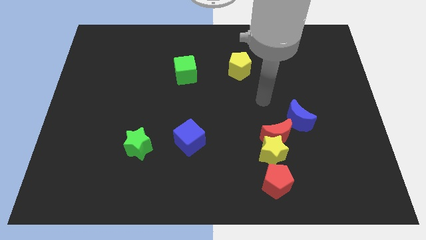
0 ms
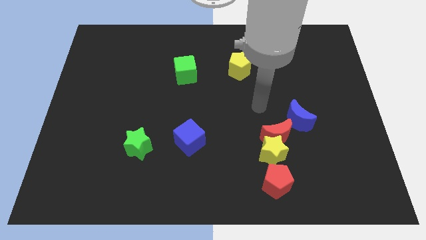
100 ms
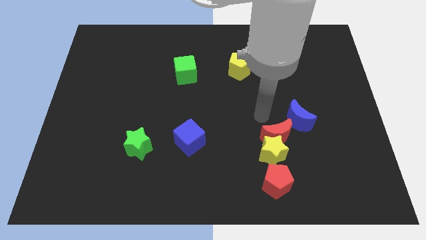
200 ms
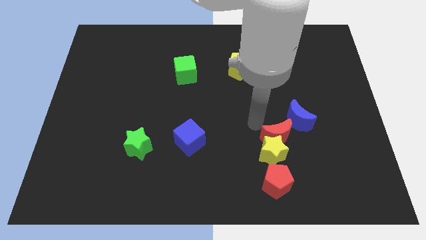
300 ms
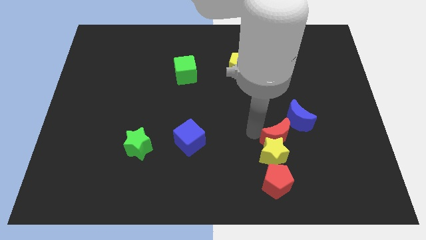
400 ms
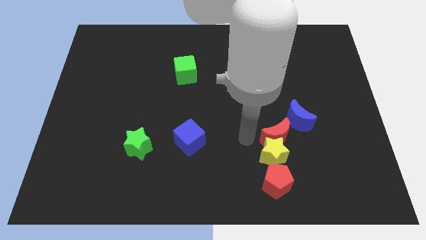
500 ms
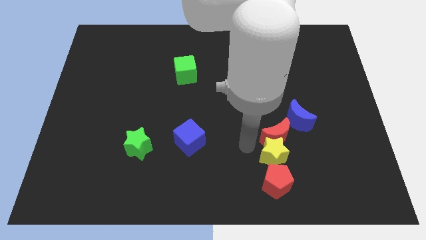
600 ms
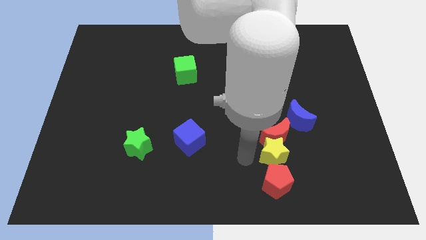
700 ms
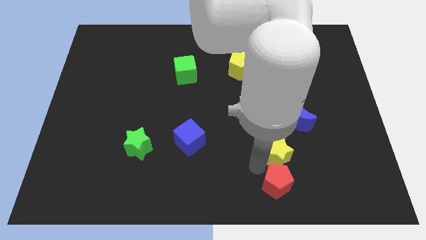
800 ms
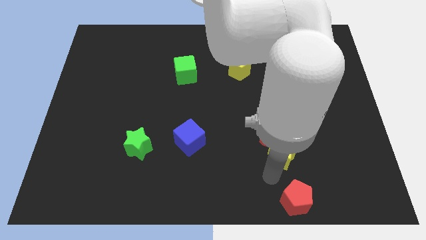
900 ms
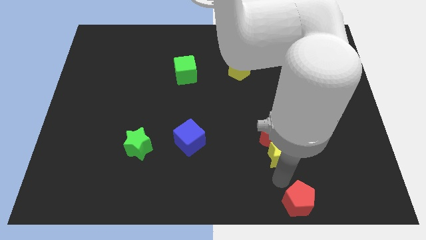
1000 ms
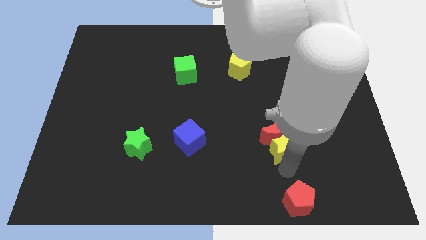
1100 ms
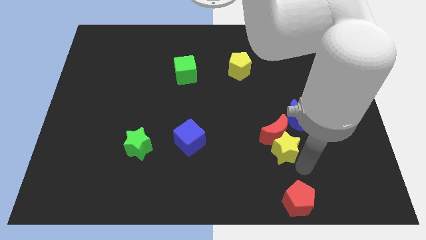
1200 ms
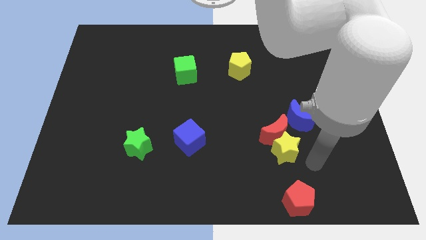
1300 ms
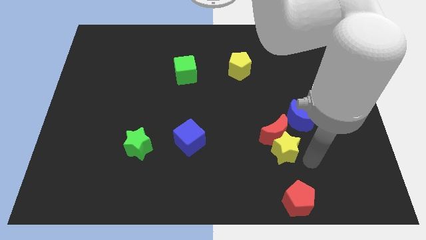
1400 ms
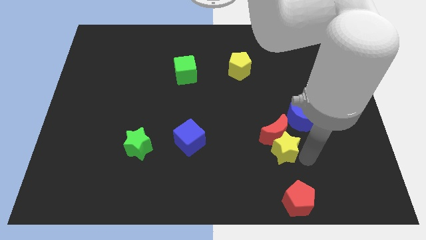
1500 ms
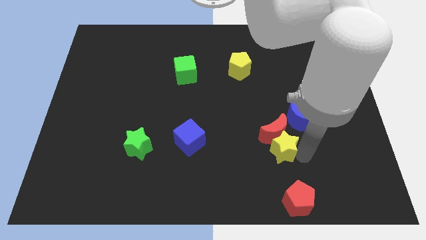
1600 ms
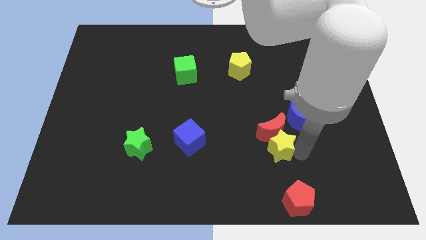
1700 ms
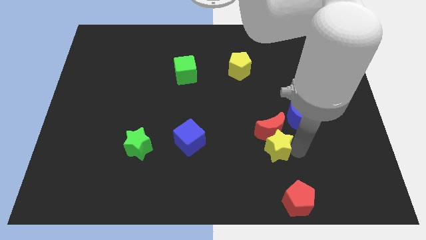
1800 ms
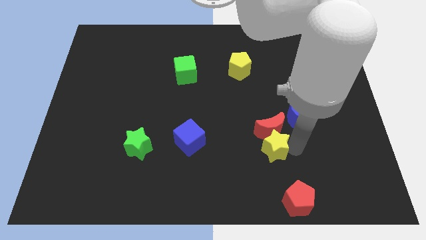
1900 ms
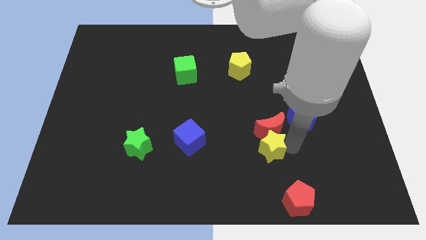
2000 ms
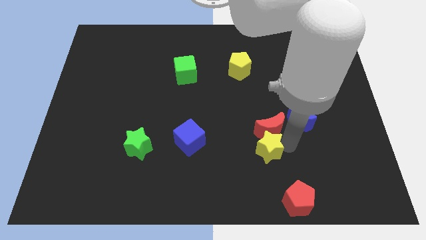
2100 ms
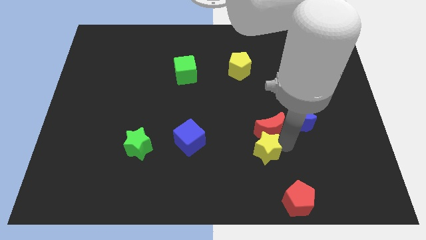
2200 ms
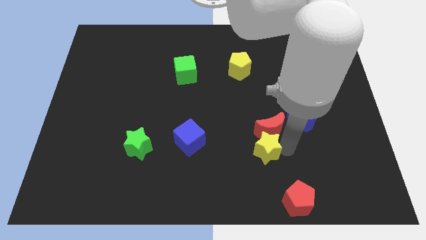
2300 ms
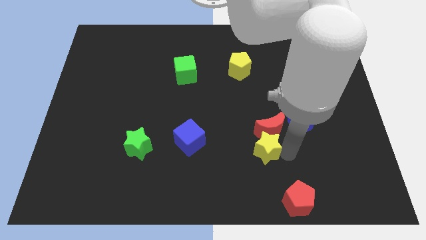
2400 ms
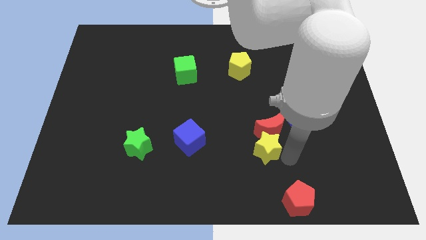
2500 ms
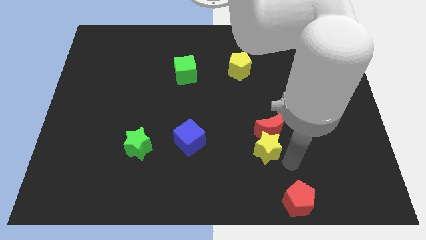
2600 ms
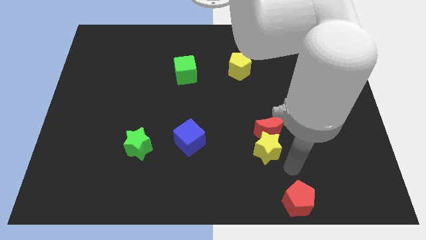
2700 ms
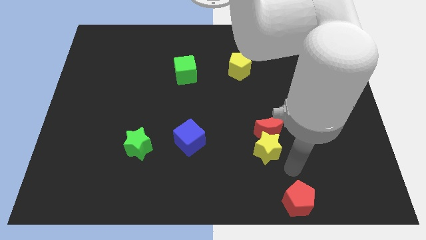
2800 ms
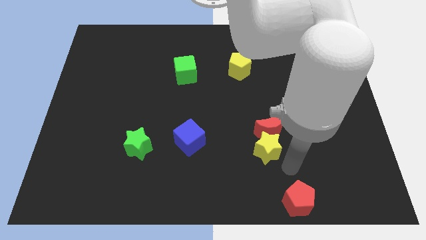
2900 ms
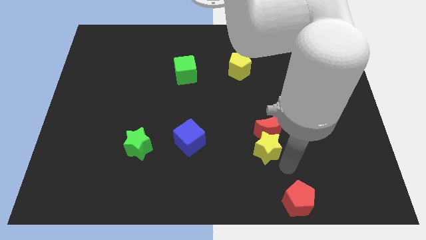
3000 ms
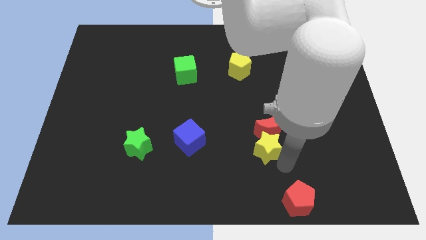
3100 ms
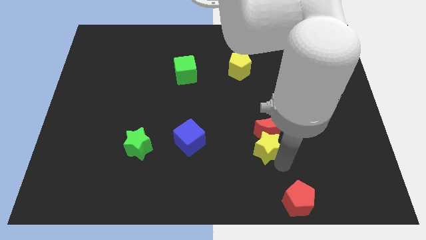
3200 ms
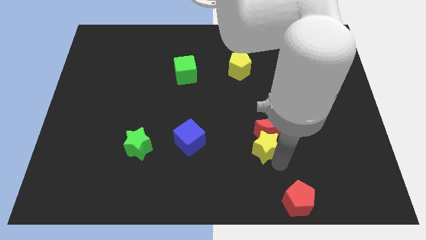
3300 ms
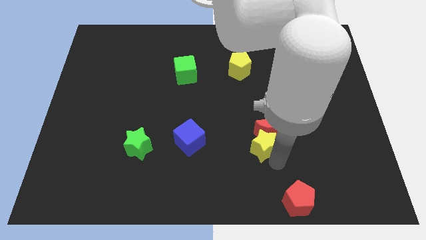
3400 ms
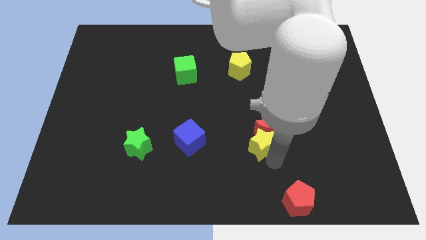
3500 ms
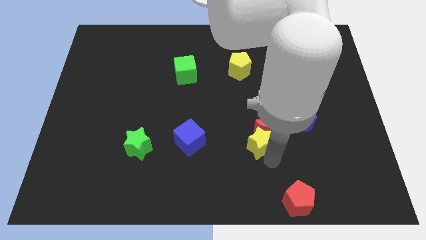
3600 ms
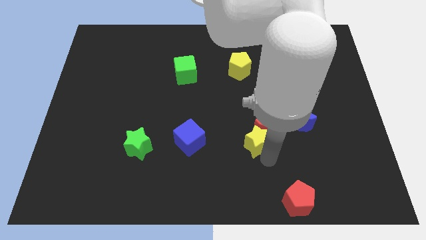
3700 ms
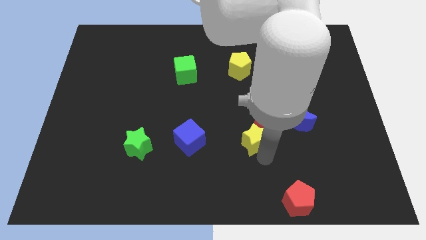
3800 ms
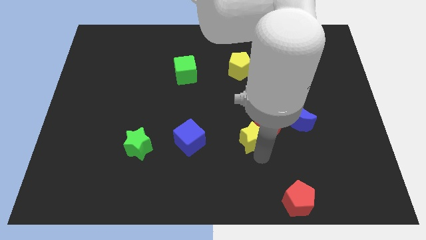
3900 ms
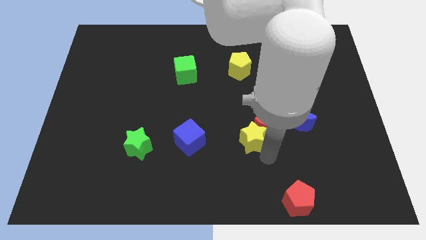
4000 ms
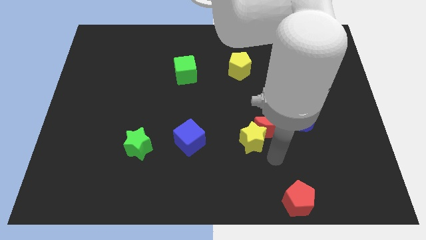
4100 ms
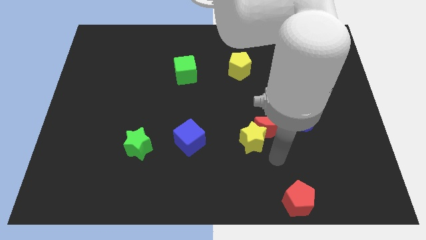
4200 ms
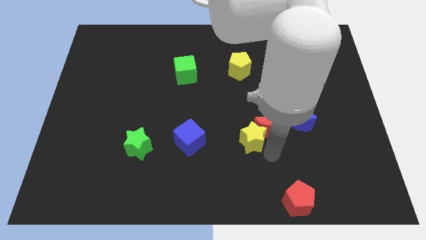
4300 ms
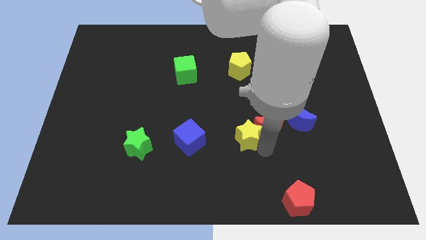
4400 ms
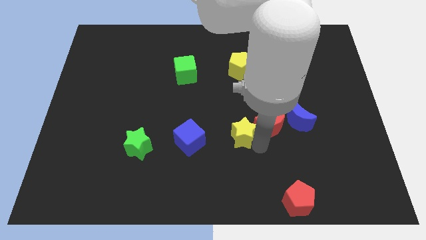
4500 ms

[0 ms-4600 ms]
move the yellow star away from the red moon and red pentagon

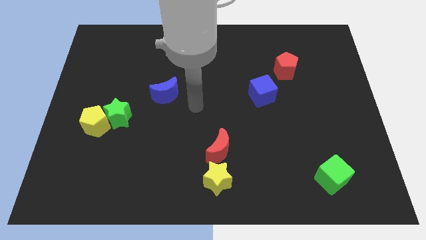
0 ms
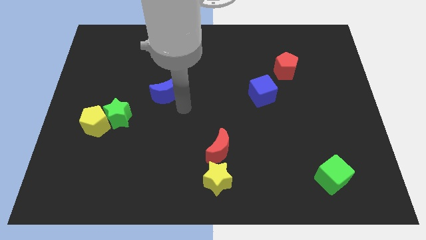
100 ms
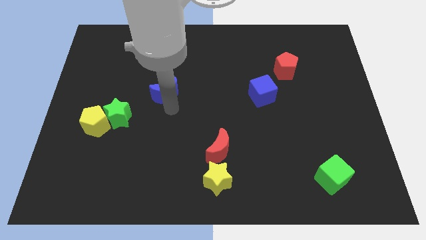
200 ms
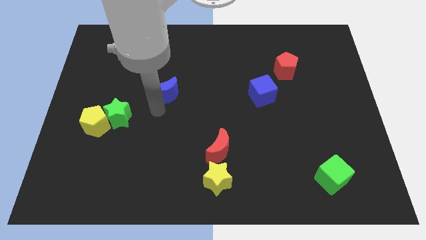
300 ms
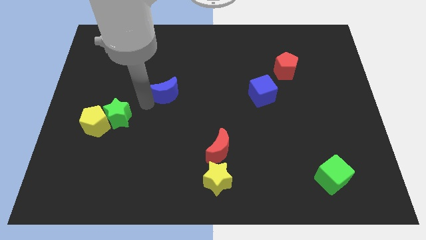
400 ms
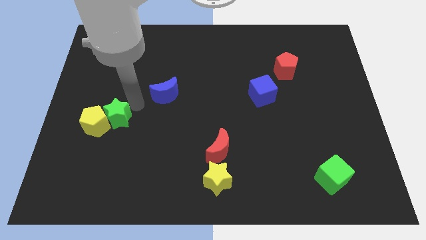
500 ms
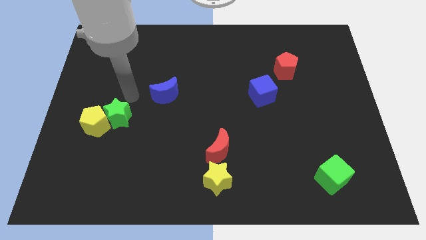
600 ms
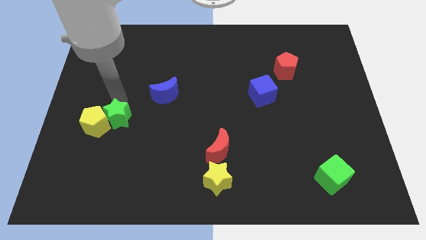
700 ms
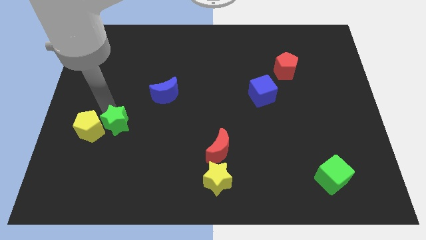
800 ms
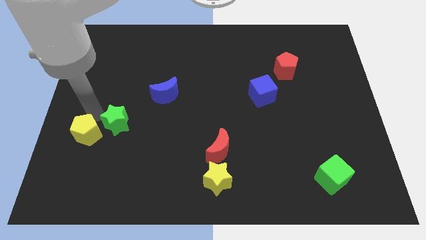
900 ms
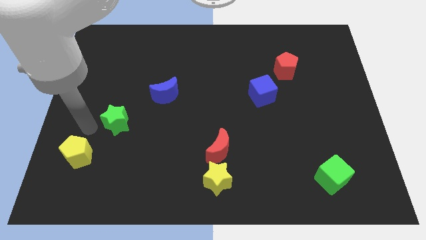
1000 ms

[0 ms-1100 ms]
separate the green star from the yellow pentagon

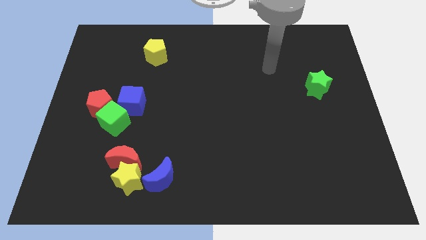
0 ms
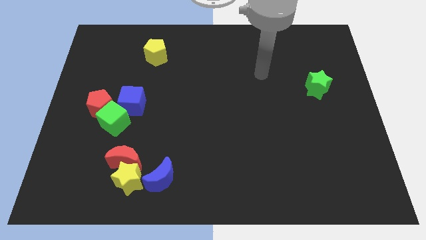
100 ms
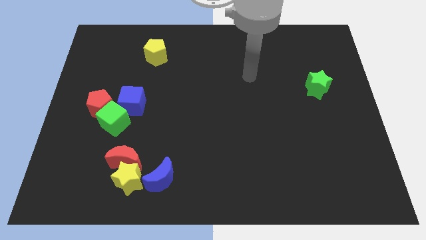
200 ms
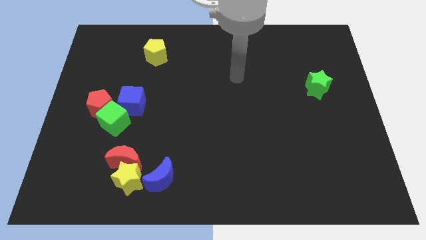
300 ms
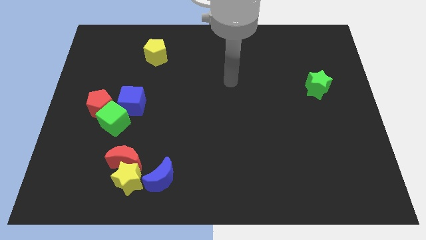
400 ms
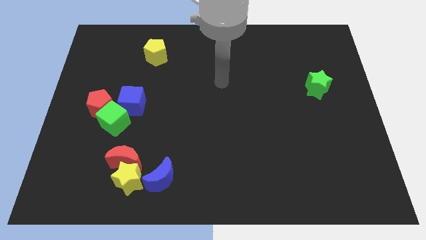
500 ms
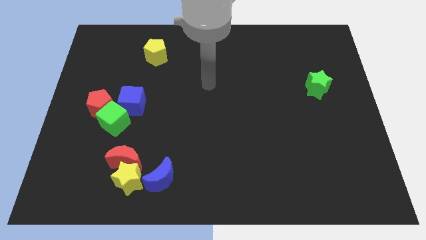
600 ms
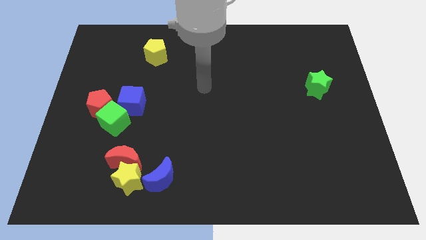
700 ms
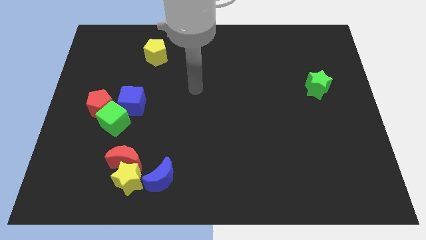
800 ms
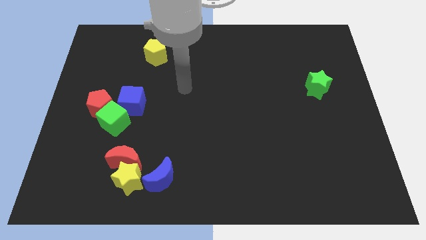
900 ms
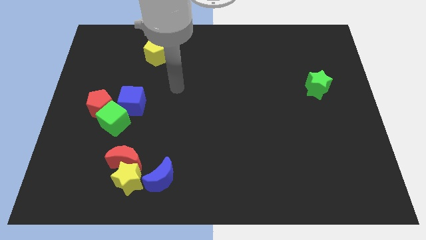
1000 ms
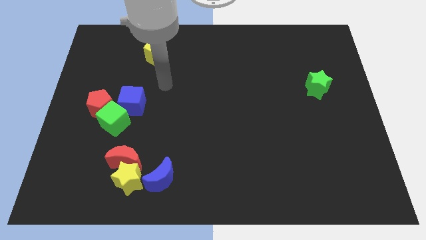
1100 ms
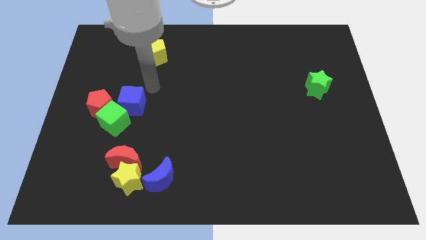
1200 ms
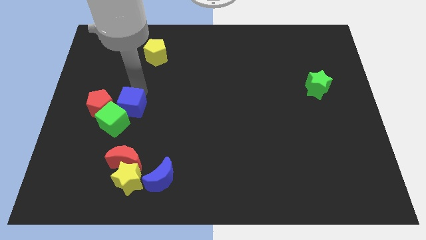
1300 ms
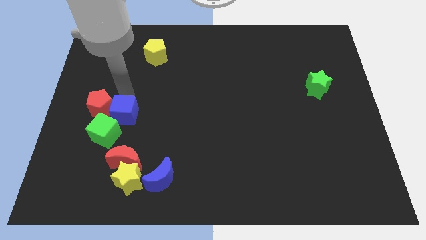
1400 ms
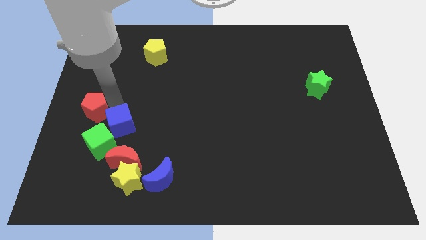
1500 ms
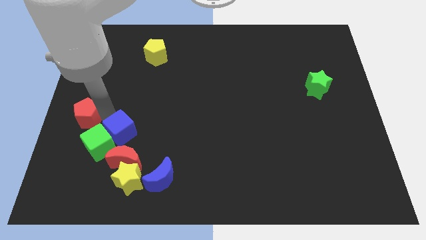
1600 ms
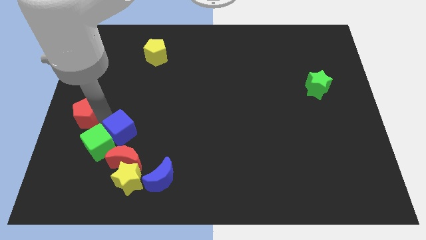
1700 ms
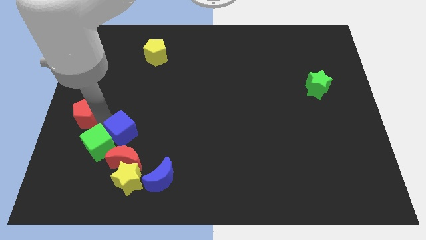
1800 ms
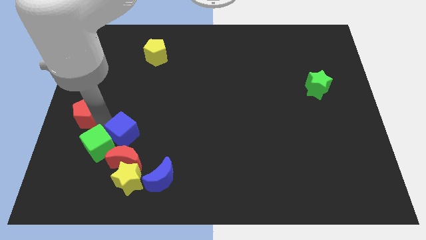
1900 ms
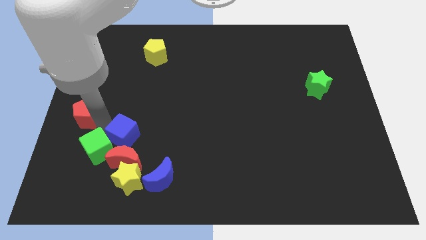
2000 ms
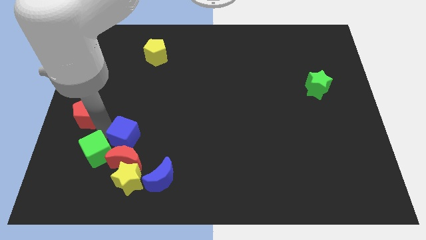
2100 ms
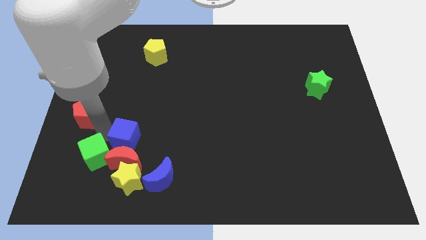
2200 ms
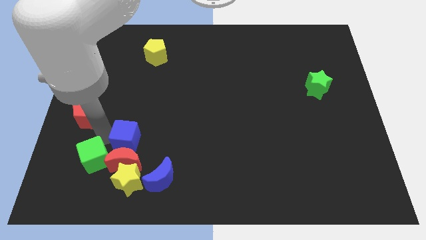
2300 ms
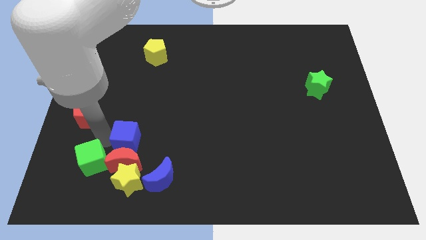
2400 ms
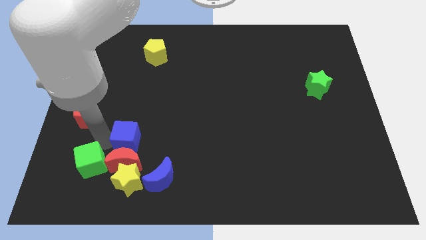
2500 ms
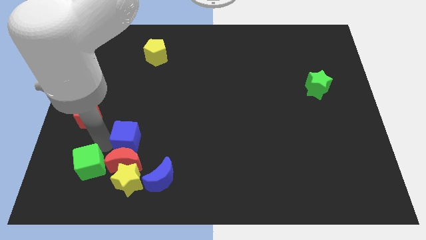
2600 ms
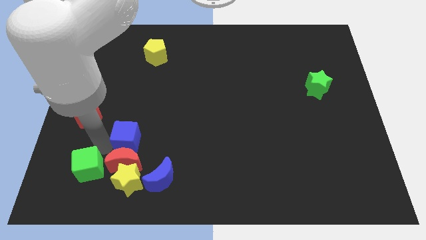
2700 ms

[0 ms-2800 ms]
pull the green cube apart from the red pentagon and blue cube

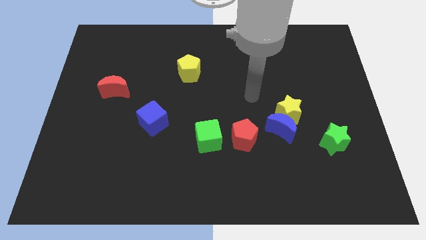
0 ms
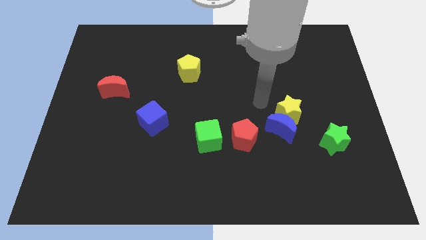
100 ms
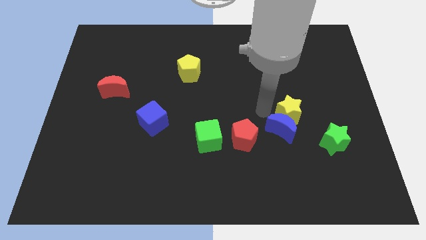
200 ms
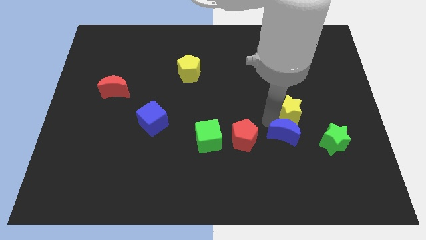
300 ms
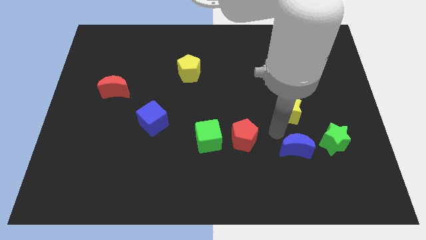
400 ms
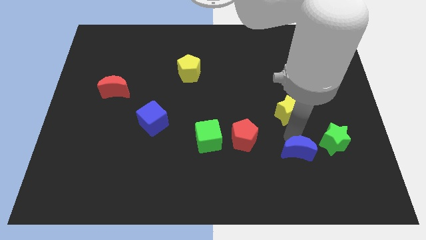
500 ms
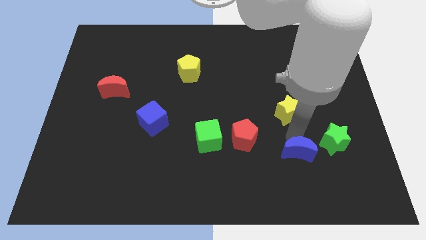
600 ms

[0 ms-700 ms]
separate the yellow star from the blue moon

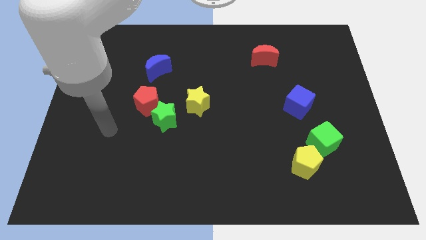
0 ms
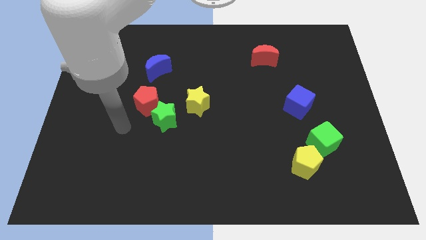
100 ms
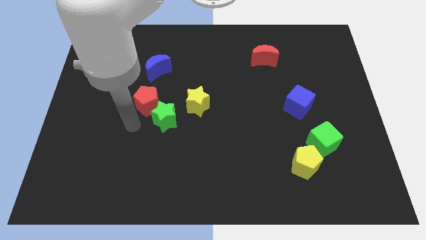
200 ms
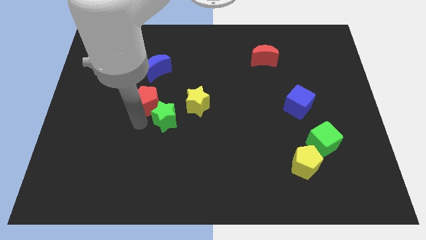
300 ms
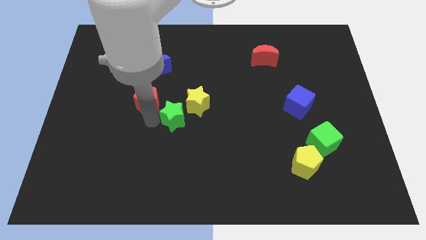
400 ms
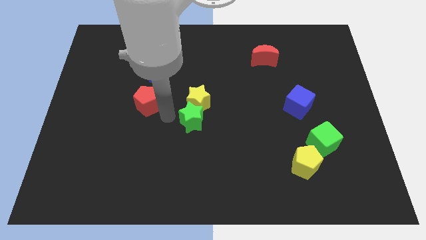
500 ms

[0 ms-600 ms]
move the red pentagon away from the green star
